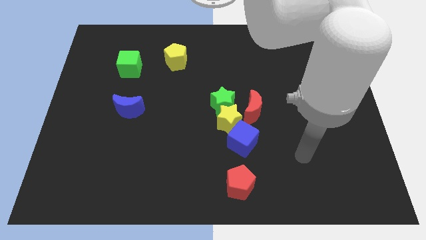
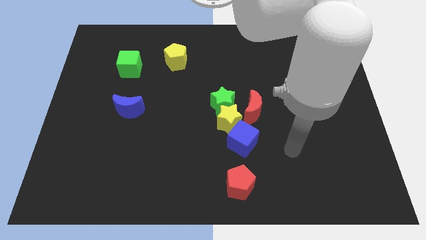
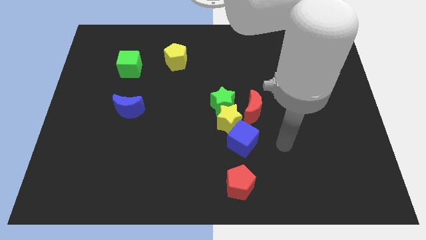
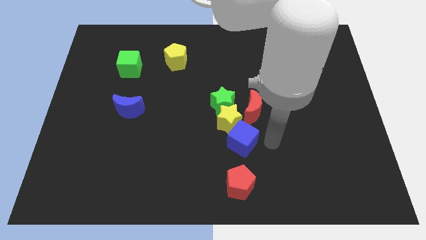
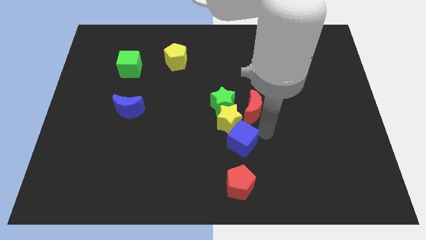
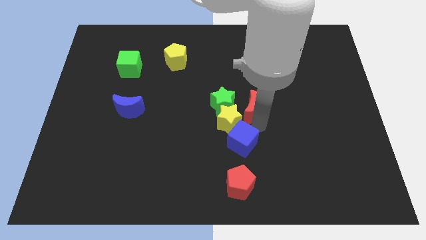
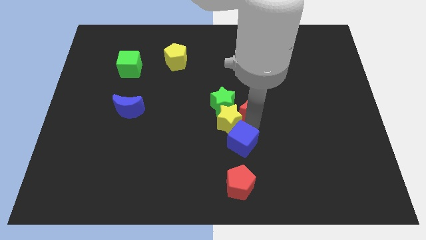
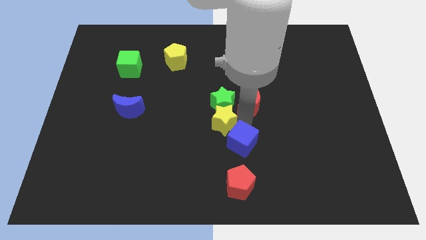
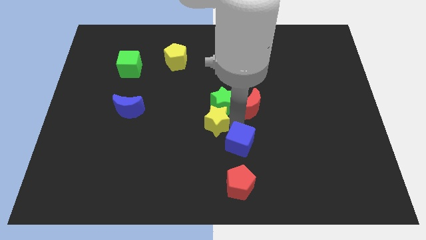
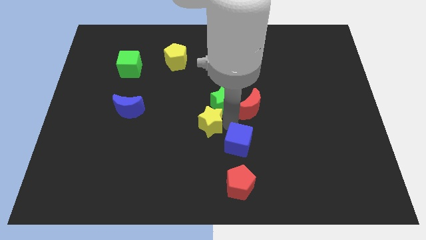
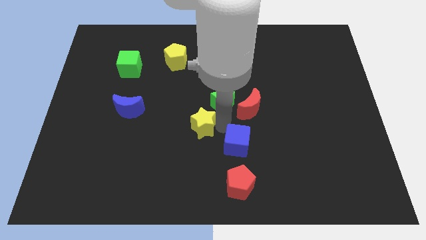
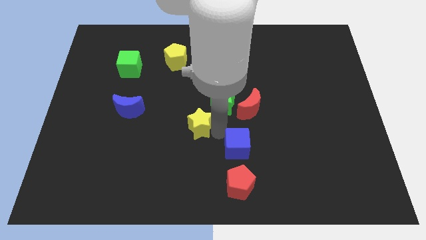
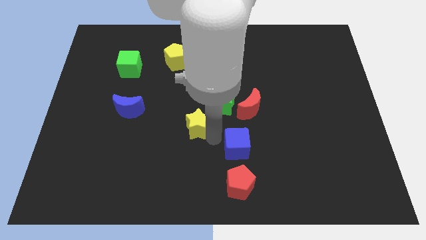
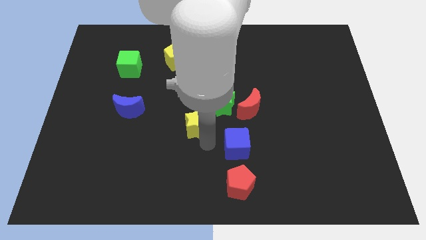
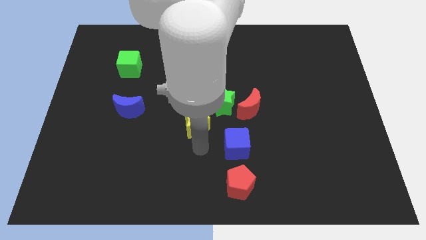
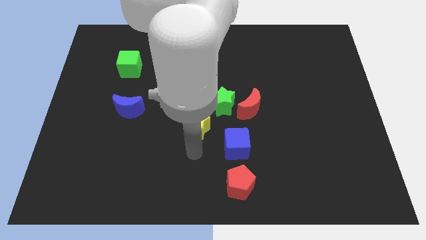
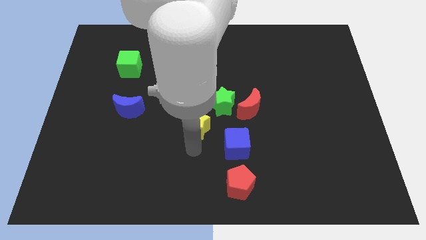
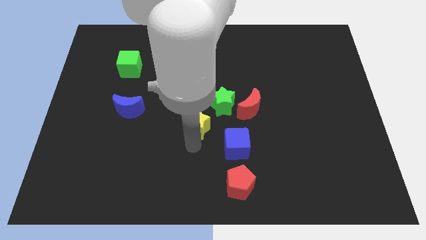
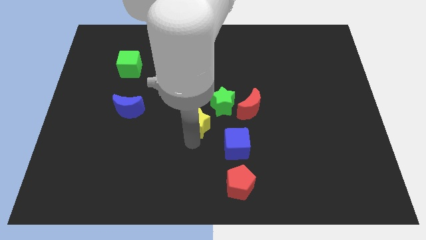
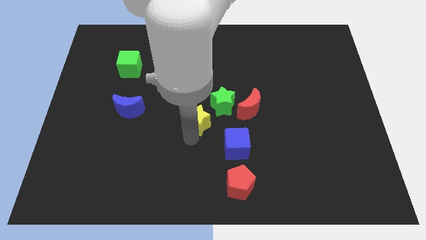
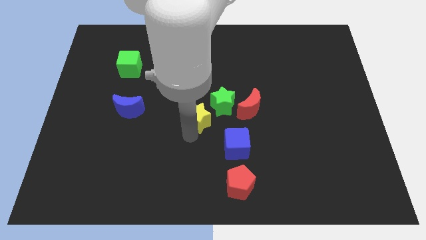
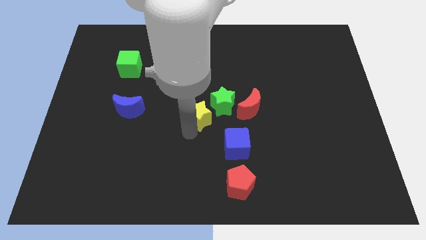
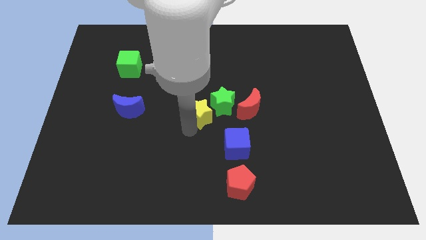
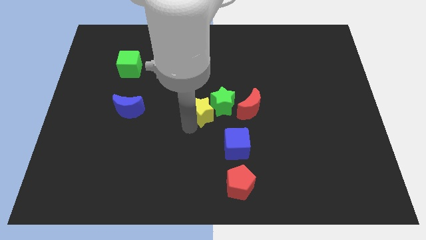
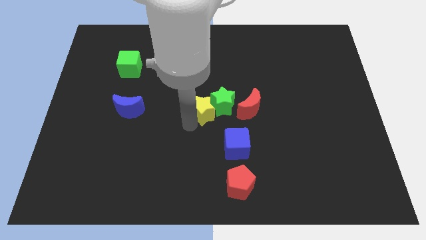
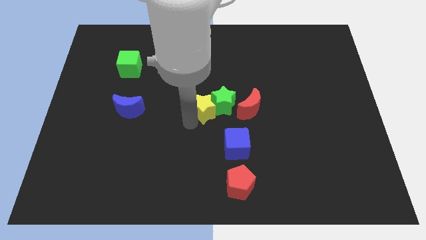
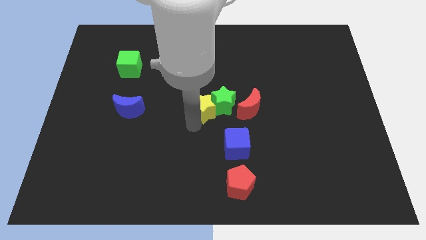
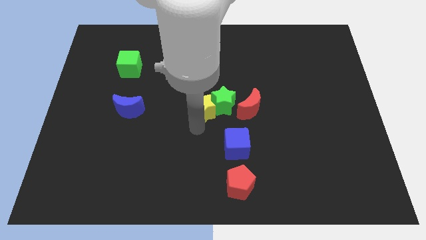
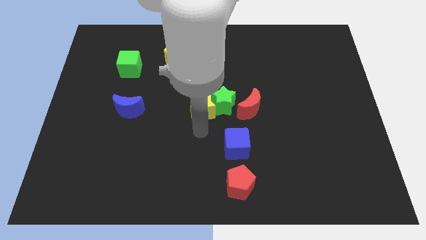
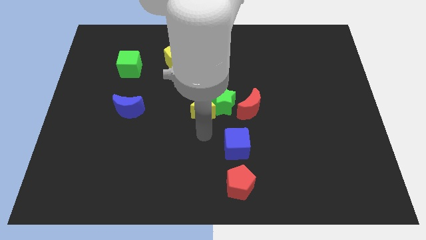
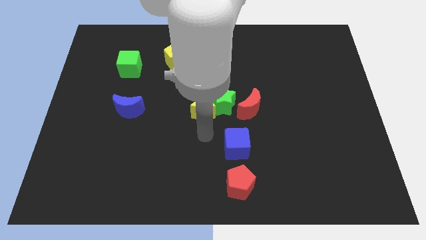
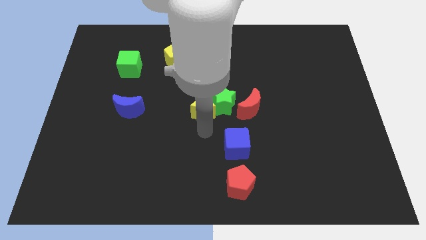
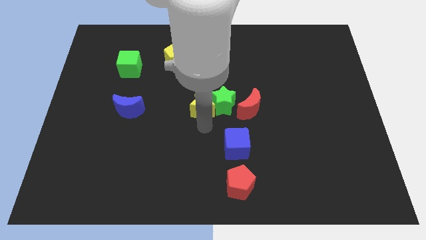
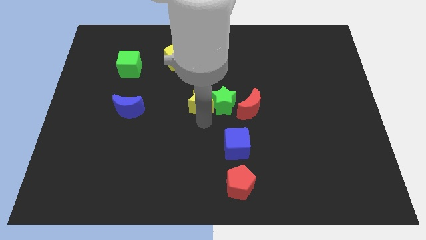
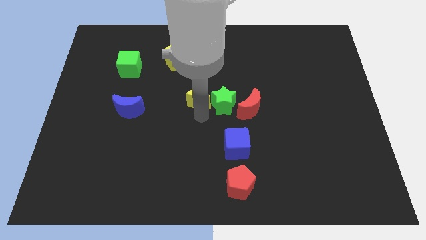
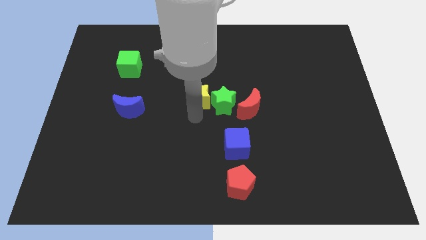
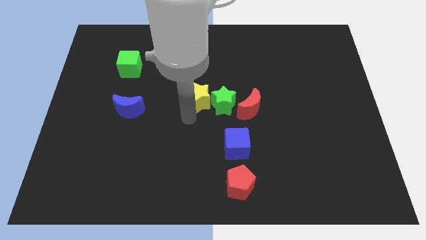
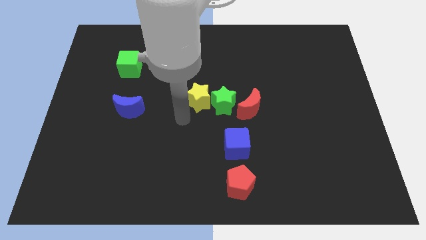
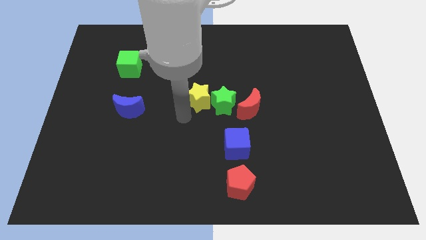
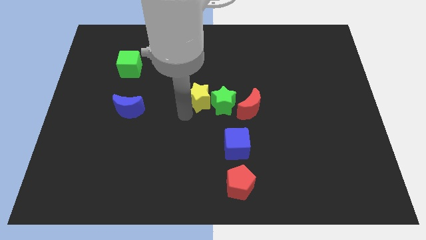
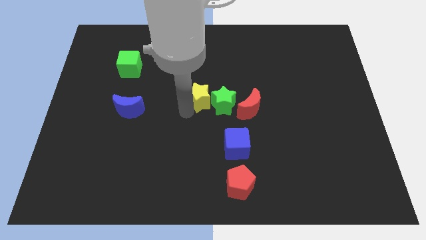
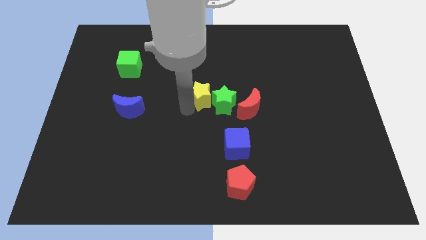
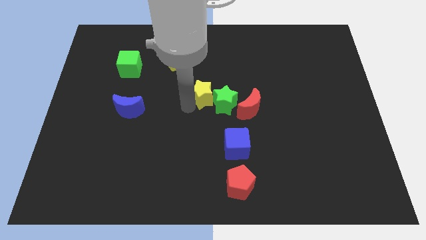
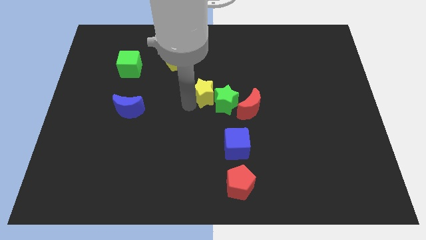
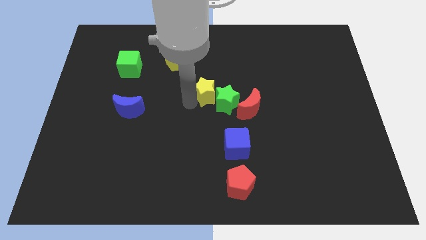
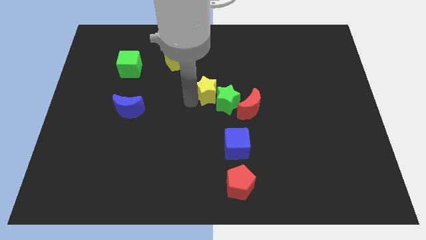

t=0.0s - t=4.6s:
move the yellow star somewhat up

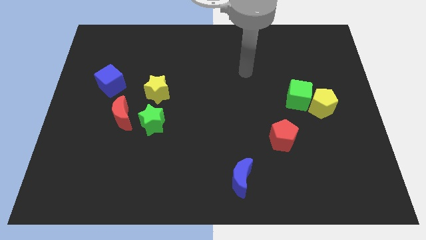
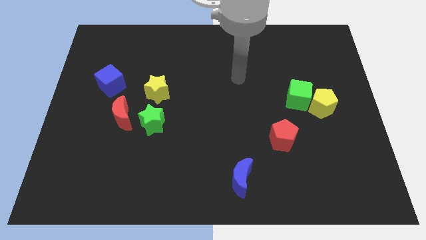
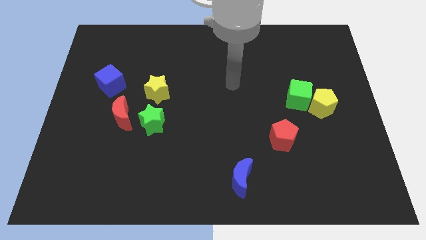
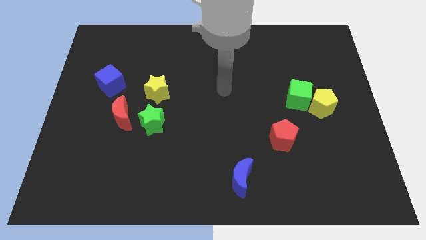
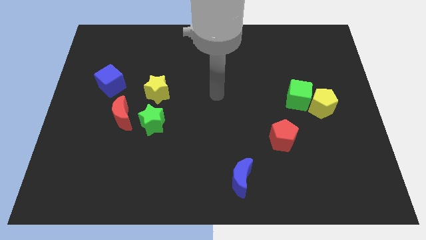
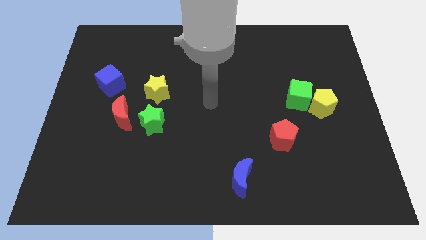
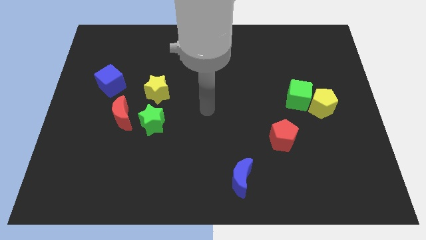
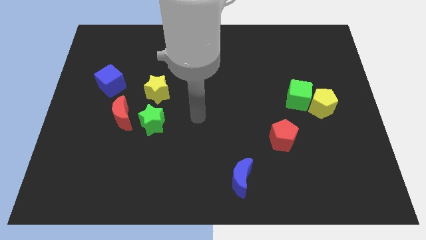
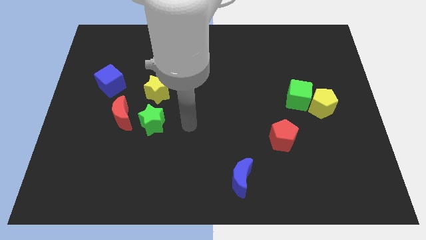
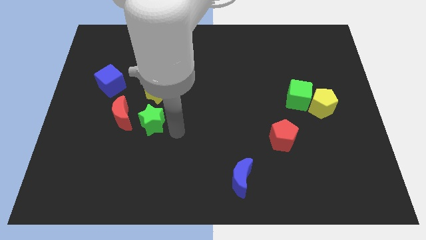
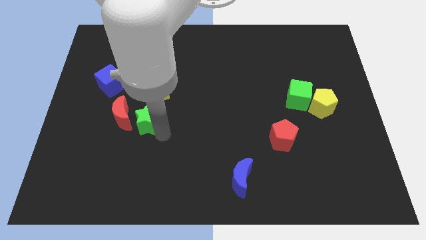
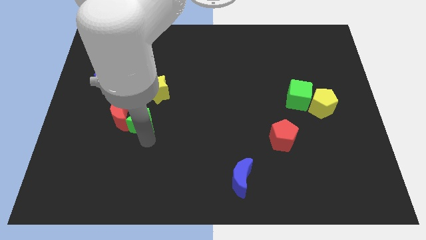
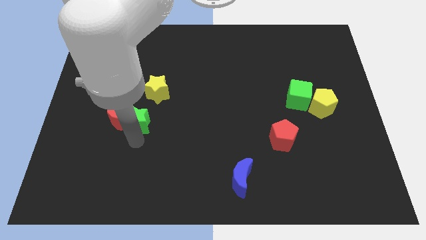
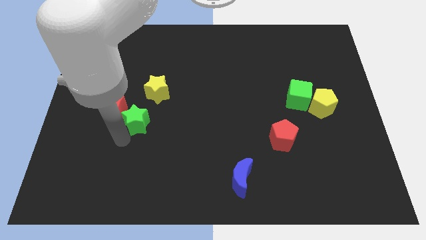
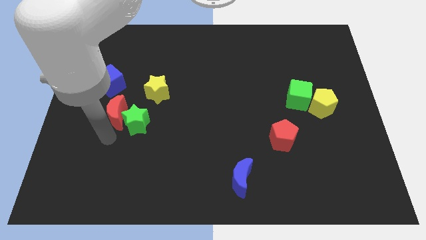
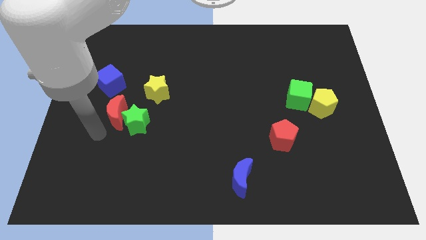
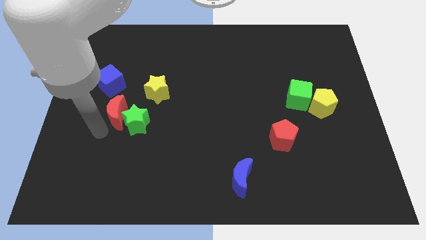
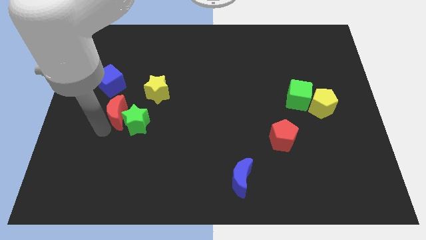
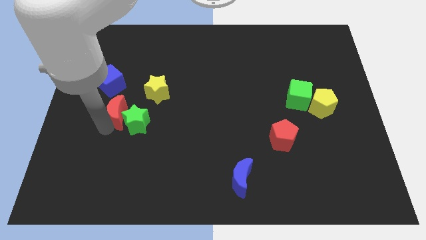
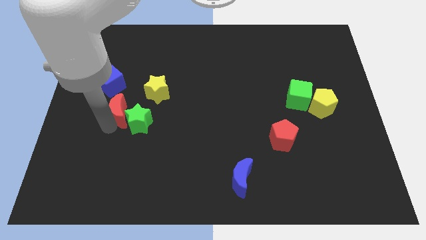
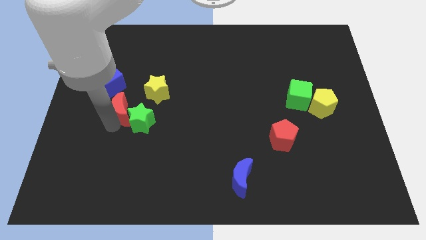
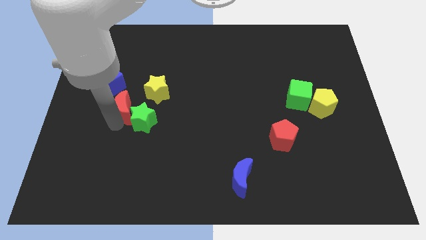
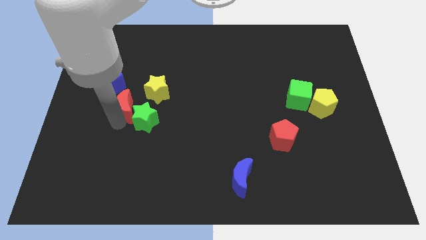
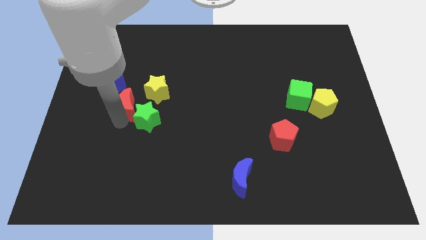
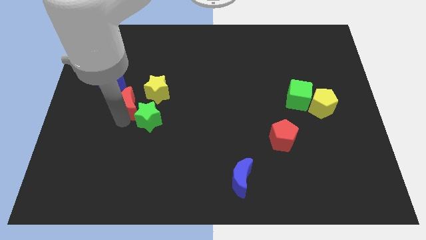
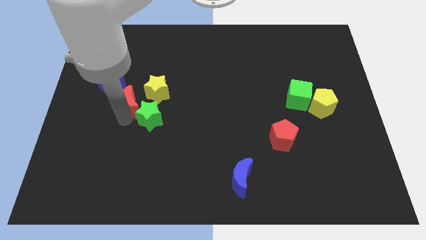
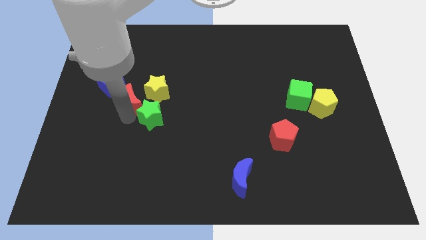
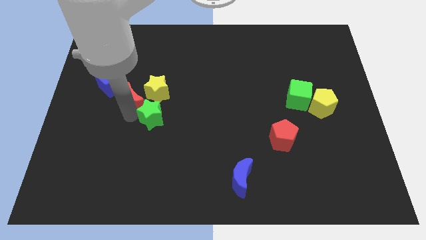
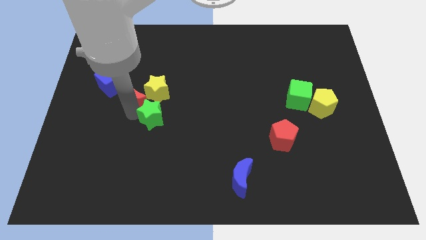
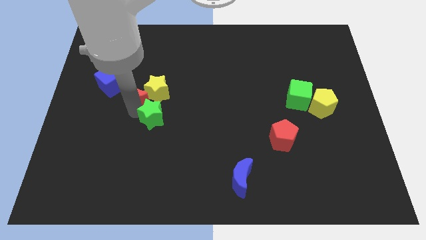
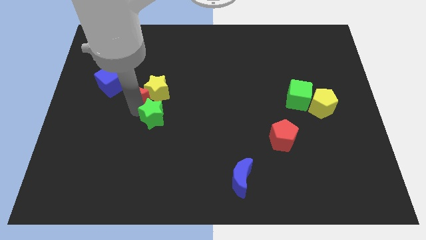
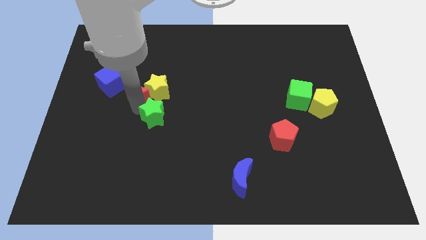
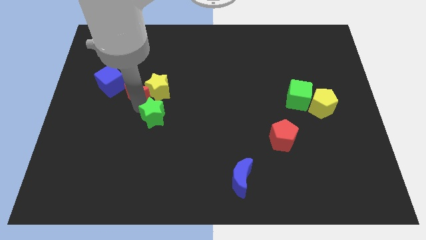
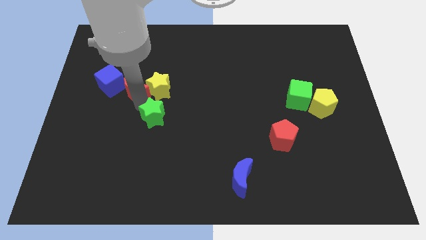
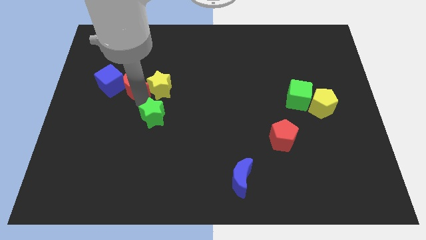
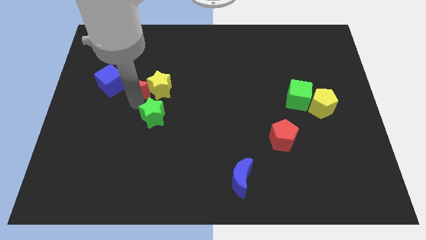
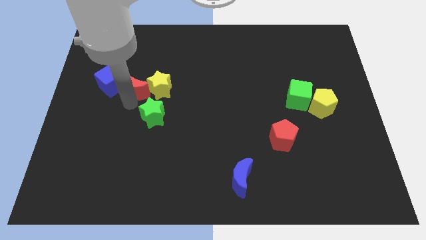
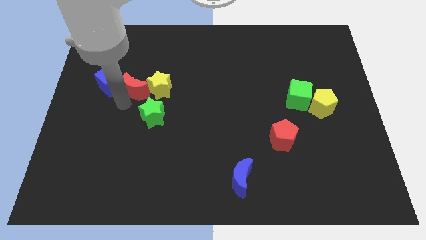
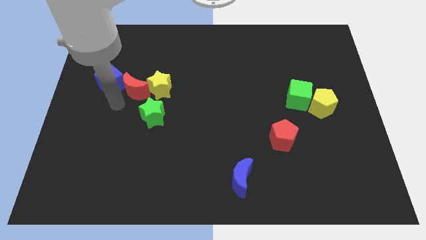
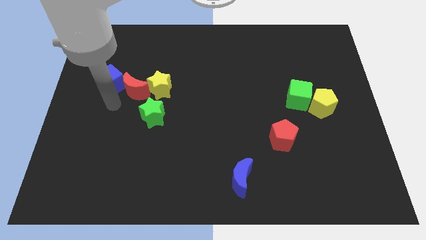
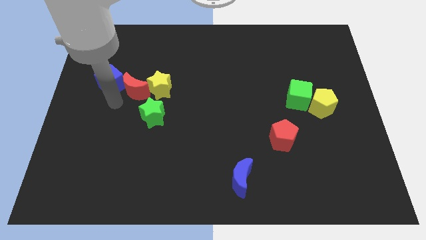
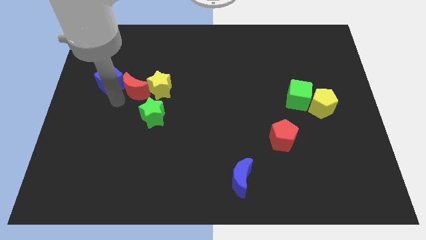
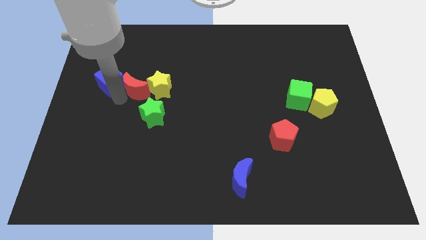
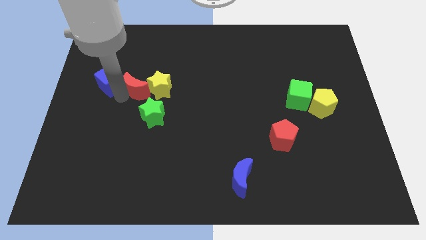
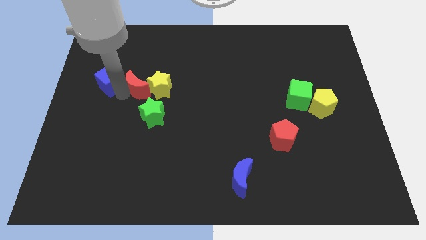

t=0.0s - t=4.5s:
push the red moon up and to the right a bit
